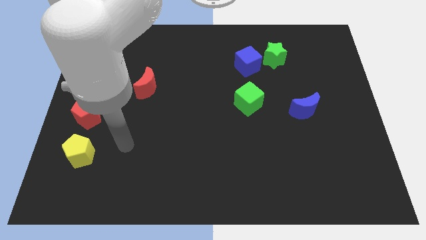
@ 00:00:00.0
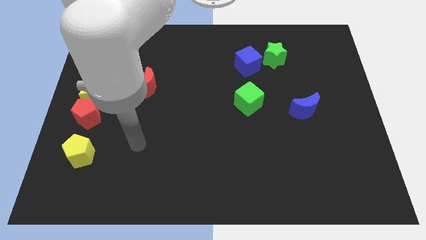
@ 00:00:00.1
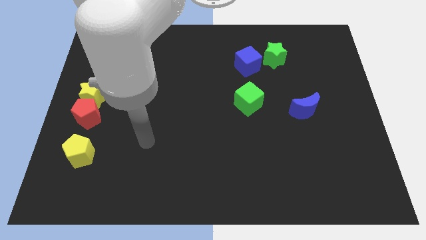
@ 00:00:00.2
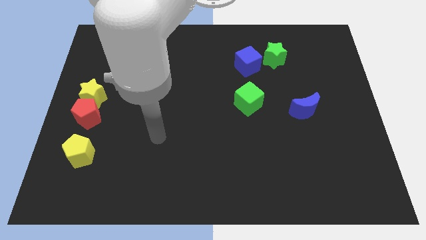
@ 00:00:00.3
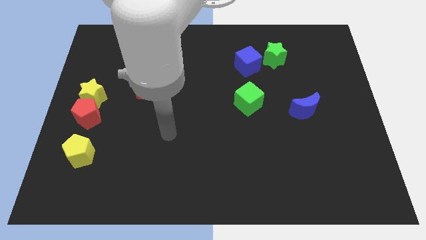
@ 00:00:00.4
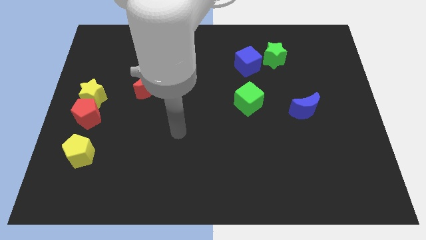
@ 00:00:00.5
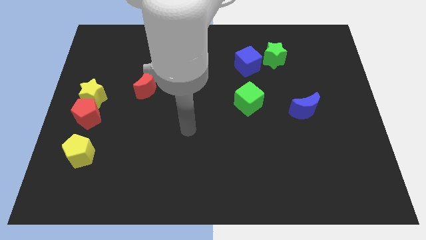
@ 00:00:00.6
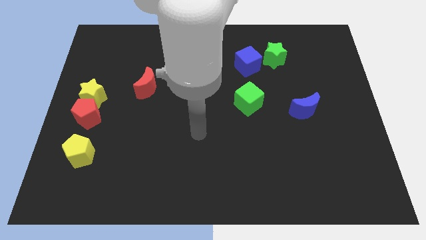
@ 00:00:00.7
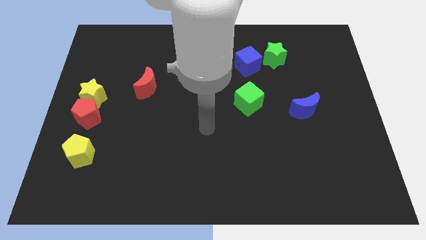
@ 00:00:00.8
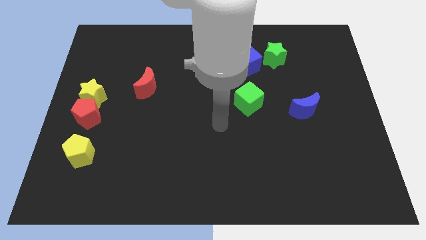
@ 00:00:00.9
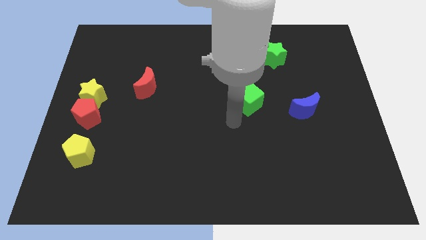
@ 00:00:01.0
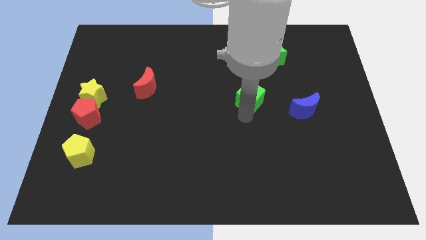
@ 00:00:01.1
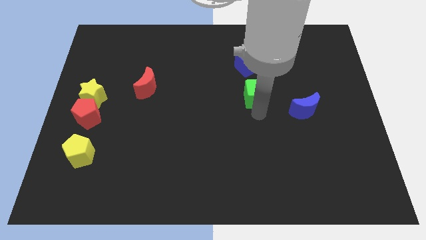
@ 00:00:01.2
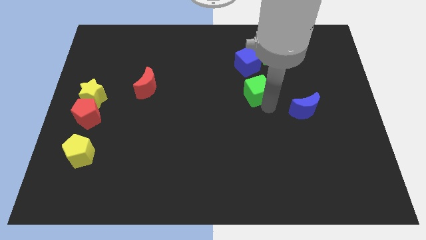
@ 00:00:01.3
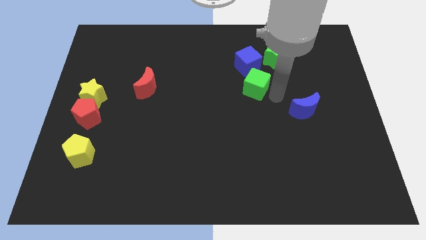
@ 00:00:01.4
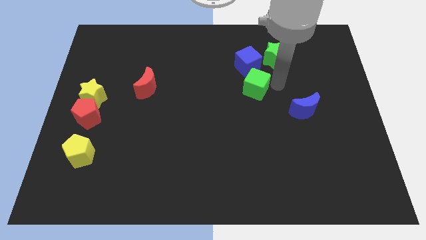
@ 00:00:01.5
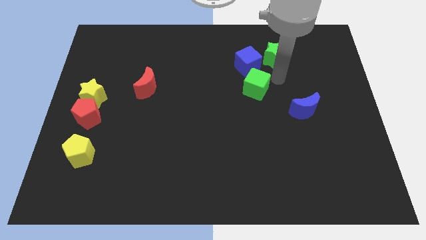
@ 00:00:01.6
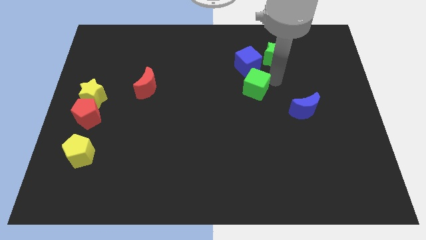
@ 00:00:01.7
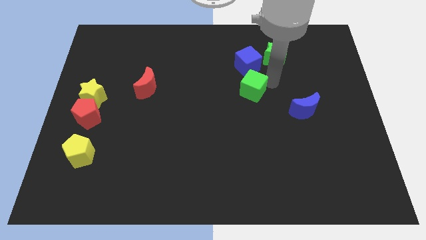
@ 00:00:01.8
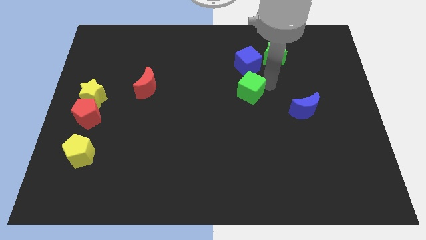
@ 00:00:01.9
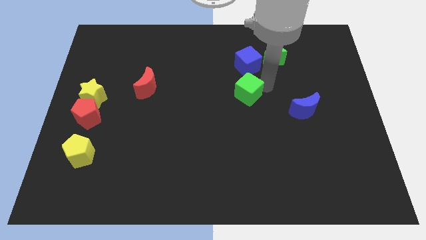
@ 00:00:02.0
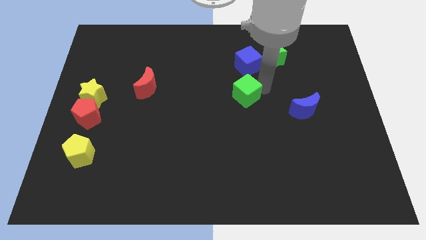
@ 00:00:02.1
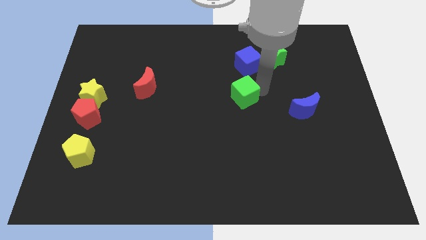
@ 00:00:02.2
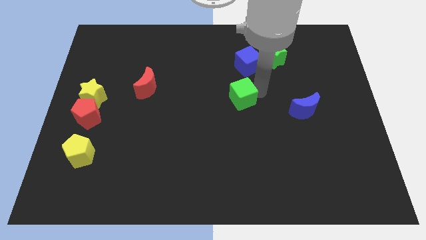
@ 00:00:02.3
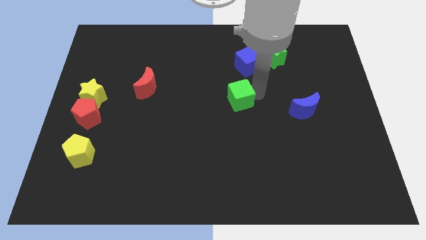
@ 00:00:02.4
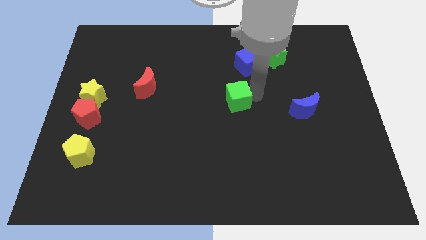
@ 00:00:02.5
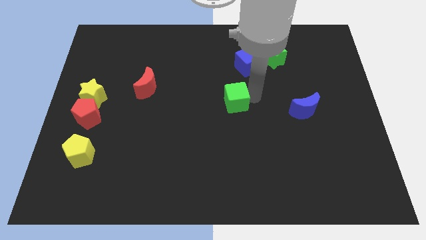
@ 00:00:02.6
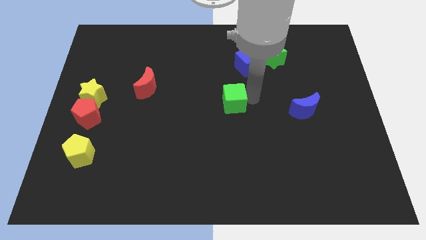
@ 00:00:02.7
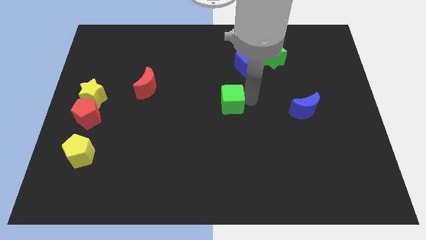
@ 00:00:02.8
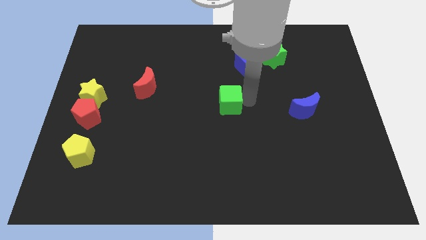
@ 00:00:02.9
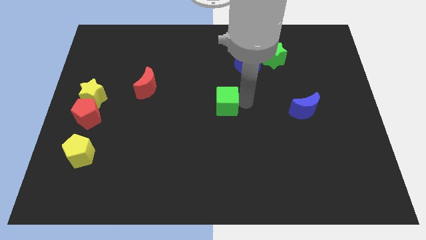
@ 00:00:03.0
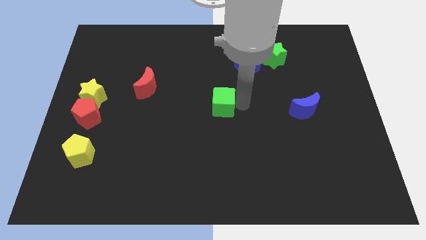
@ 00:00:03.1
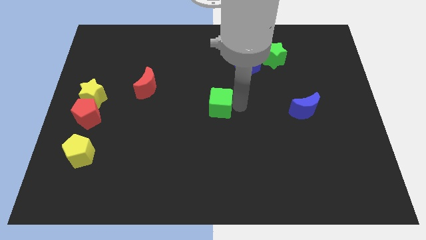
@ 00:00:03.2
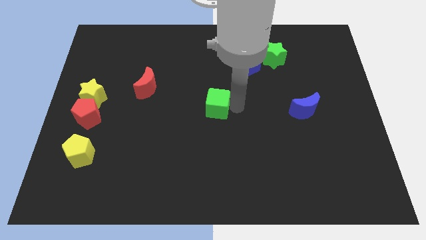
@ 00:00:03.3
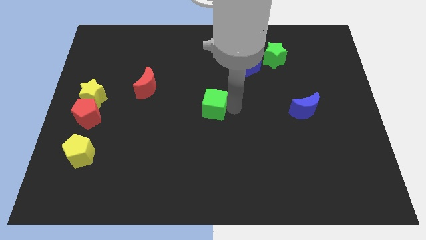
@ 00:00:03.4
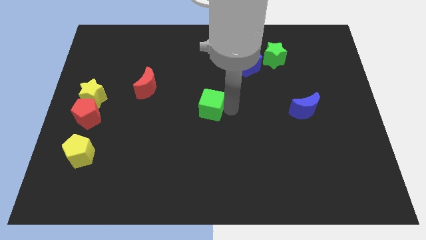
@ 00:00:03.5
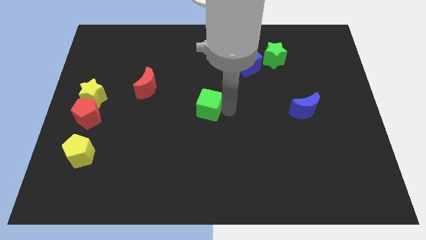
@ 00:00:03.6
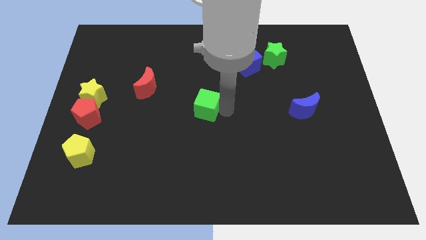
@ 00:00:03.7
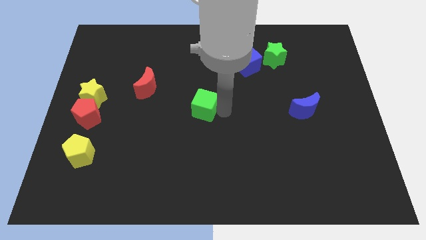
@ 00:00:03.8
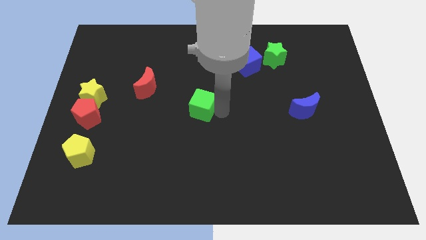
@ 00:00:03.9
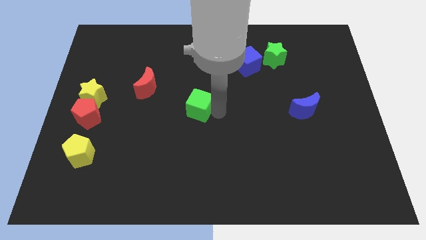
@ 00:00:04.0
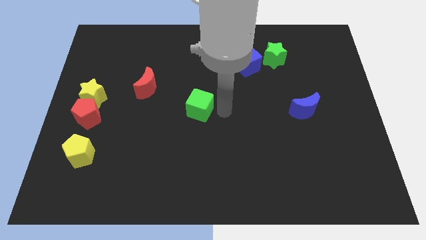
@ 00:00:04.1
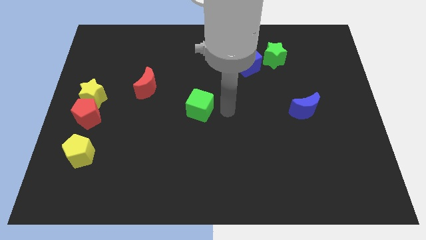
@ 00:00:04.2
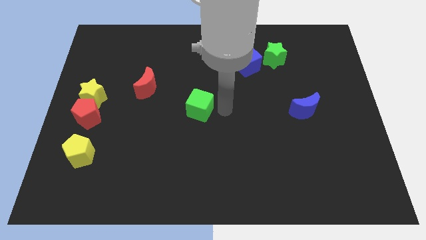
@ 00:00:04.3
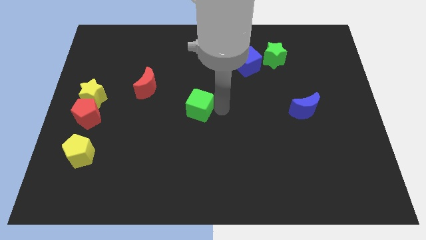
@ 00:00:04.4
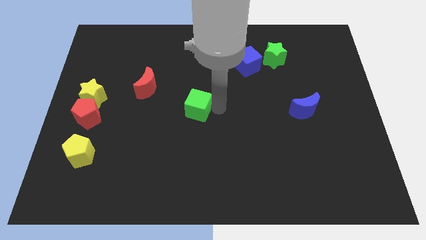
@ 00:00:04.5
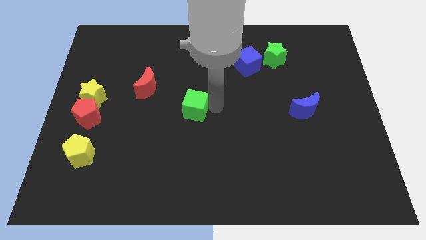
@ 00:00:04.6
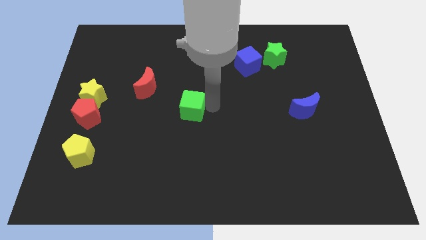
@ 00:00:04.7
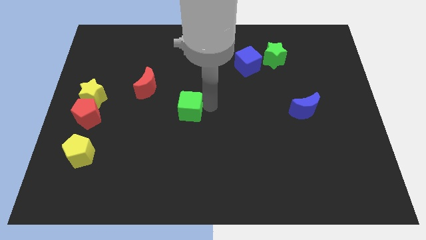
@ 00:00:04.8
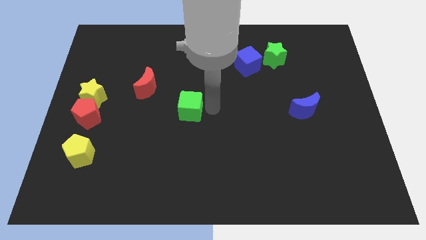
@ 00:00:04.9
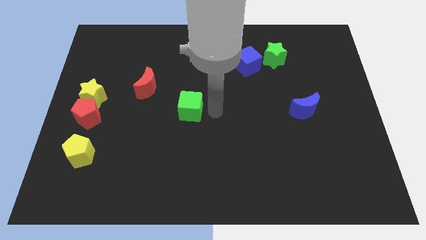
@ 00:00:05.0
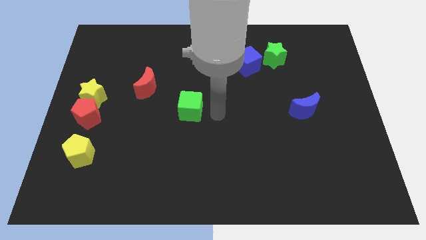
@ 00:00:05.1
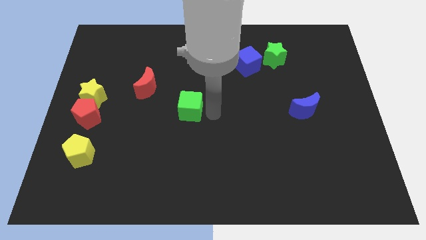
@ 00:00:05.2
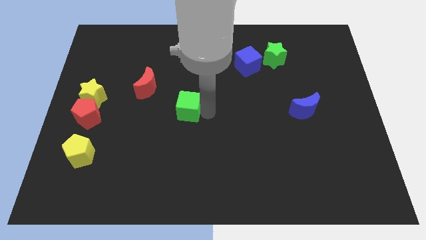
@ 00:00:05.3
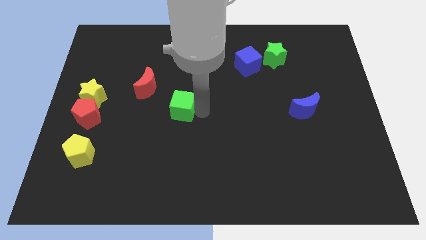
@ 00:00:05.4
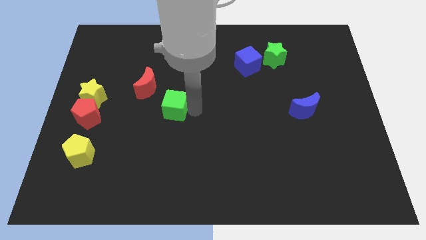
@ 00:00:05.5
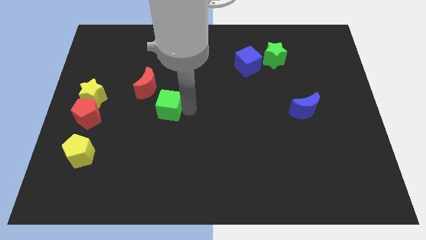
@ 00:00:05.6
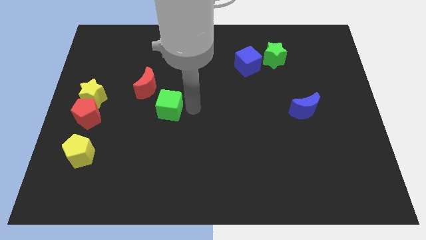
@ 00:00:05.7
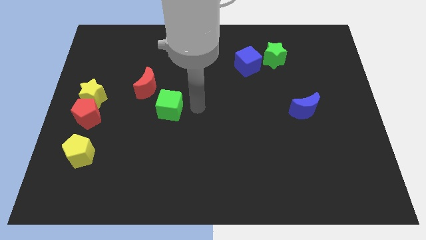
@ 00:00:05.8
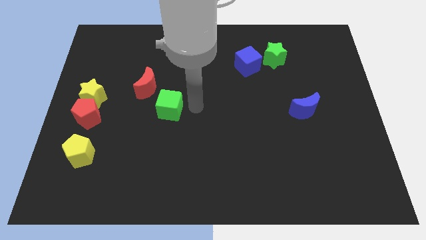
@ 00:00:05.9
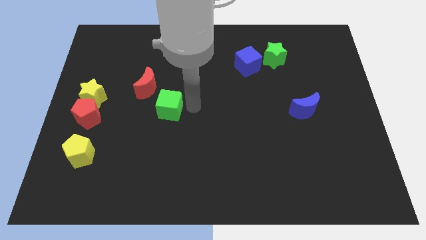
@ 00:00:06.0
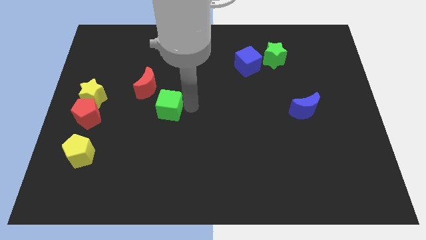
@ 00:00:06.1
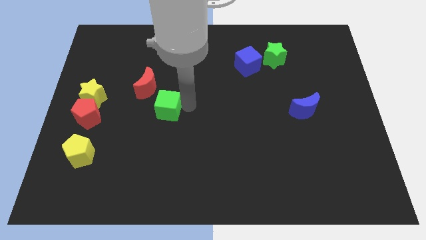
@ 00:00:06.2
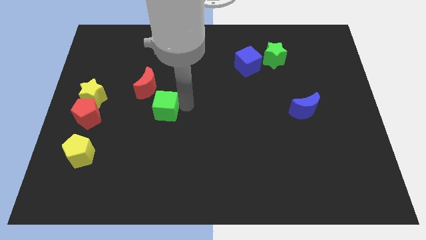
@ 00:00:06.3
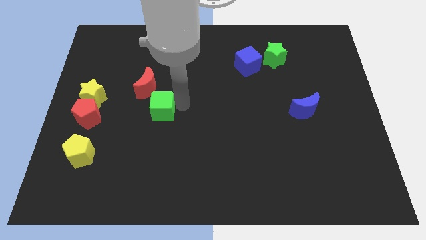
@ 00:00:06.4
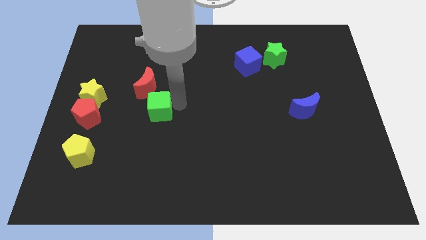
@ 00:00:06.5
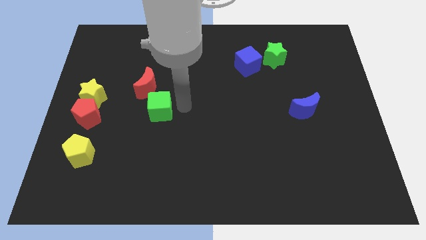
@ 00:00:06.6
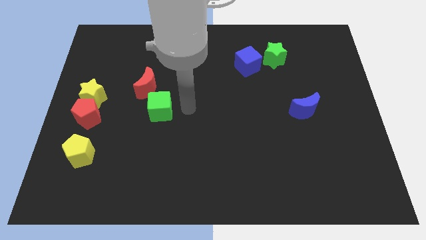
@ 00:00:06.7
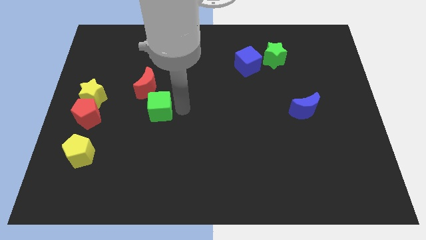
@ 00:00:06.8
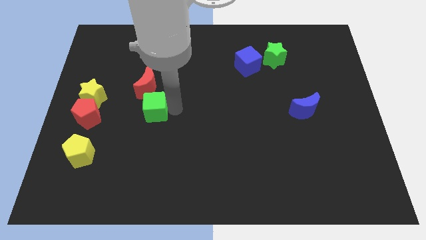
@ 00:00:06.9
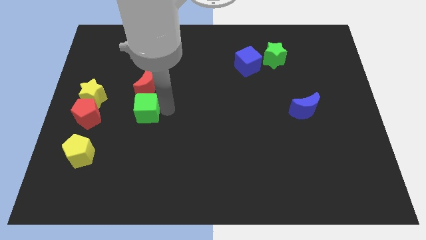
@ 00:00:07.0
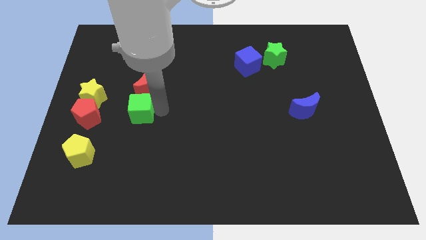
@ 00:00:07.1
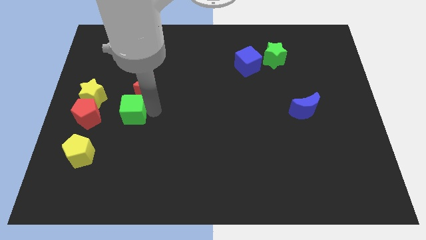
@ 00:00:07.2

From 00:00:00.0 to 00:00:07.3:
move the green cube to the bottom right side of the yellow star
